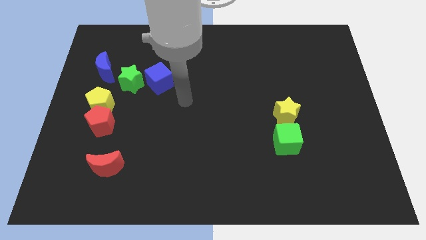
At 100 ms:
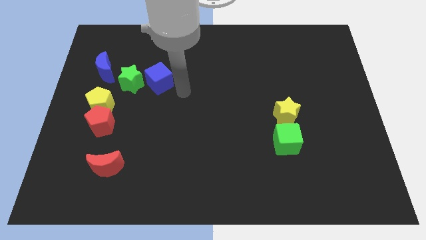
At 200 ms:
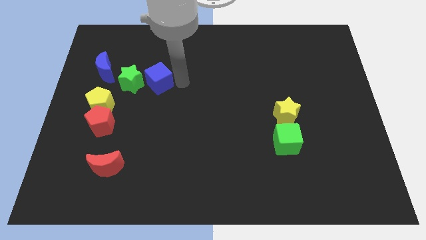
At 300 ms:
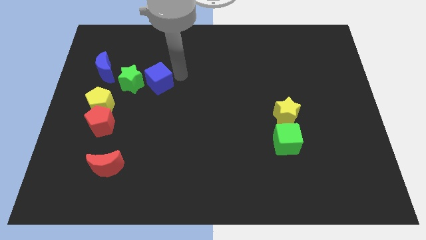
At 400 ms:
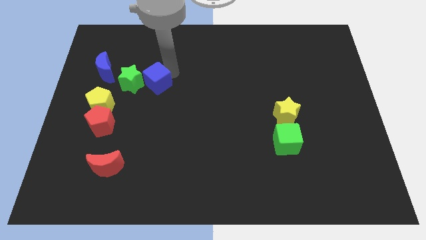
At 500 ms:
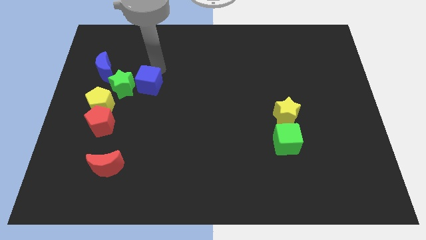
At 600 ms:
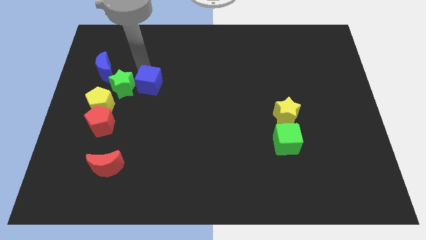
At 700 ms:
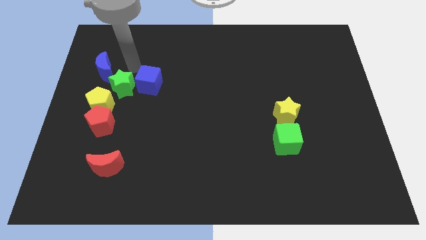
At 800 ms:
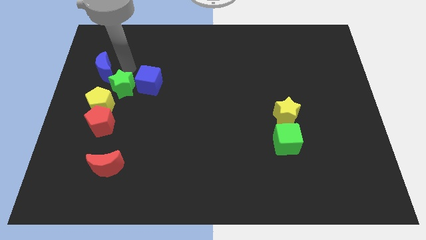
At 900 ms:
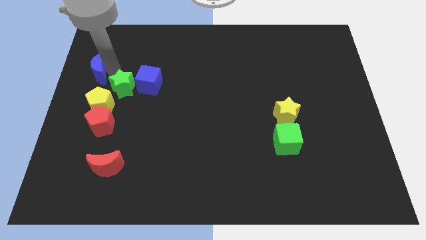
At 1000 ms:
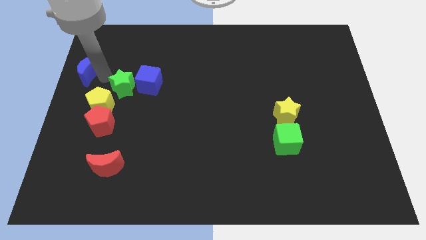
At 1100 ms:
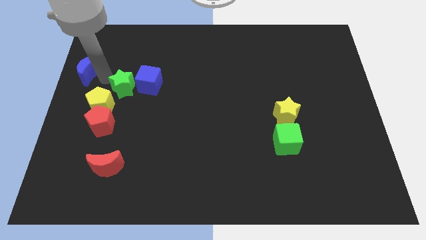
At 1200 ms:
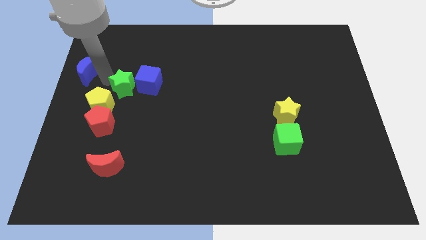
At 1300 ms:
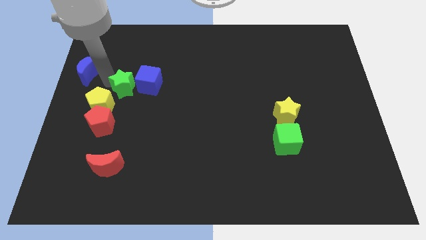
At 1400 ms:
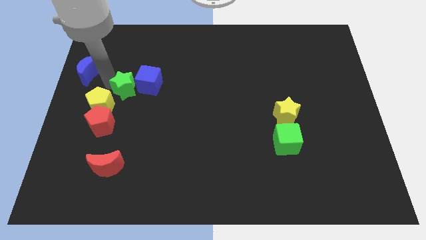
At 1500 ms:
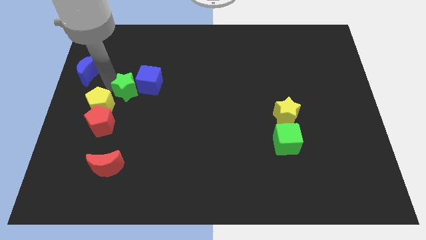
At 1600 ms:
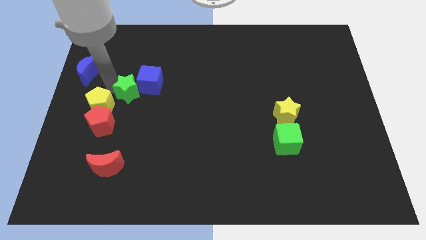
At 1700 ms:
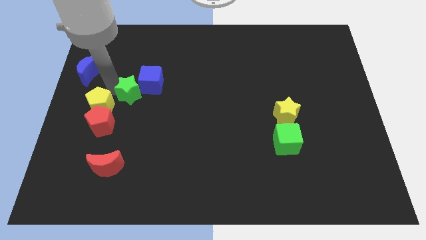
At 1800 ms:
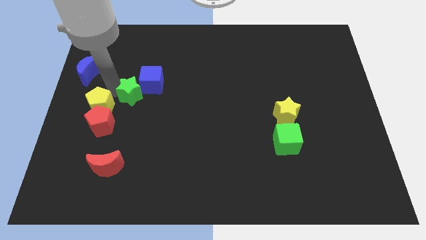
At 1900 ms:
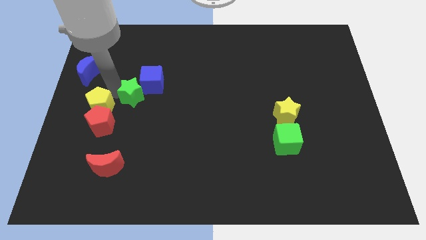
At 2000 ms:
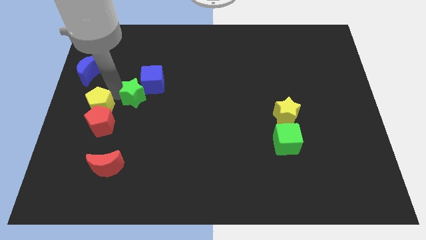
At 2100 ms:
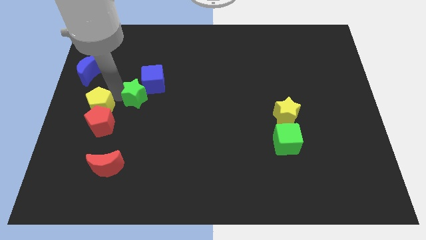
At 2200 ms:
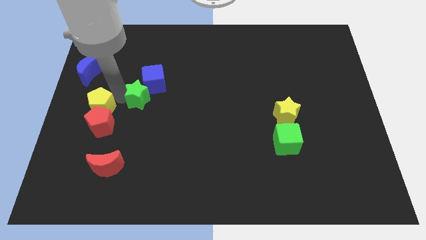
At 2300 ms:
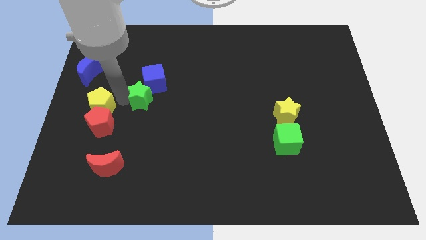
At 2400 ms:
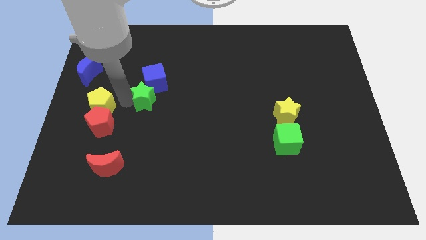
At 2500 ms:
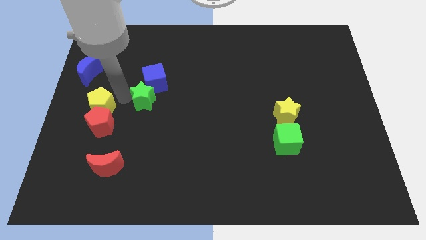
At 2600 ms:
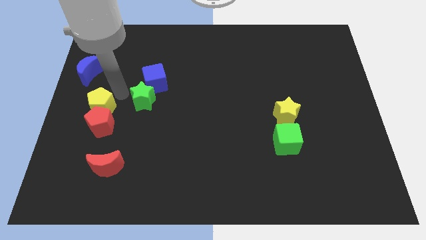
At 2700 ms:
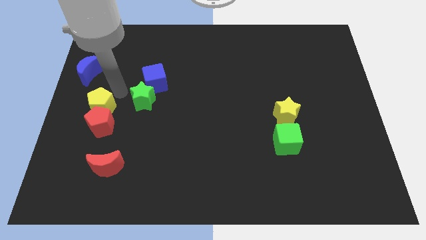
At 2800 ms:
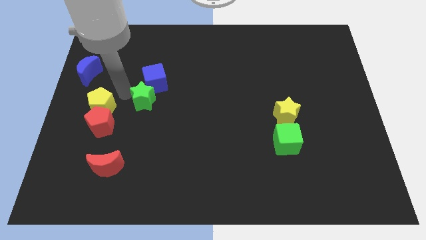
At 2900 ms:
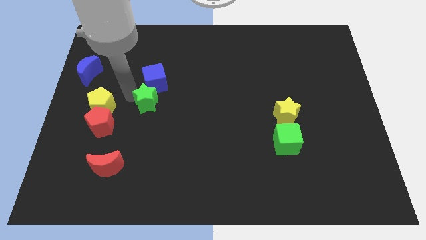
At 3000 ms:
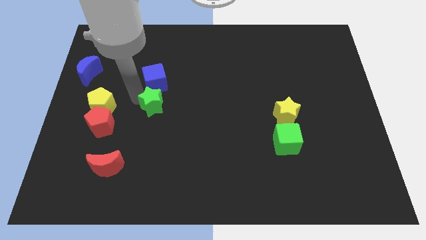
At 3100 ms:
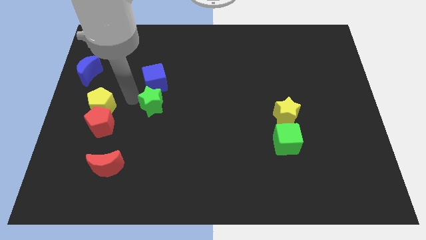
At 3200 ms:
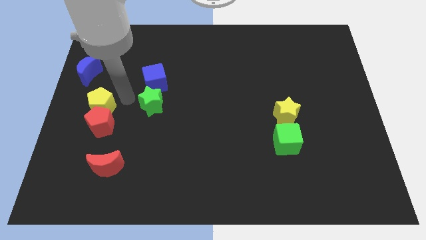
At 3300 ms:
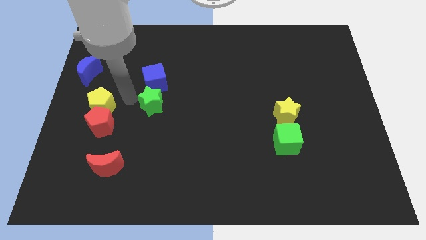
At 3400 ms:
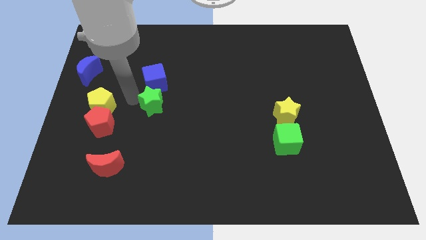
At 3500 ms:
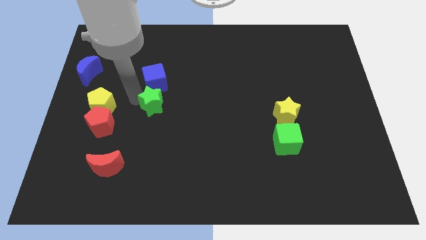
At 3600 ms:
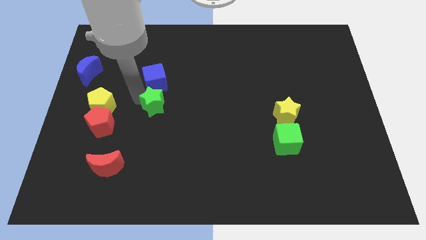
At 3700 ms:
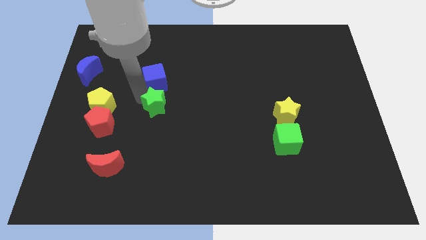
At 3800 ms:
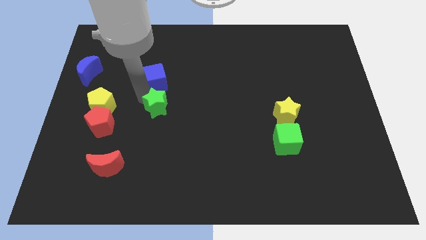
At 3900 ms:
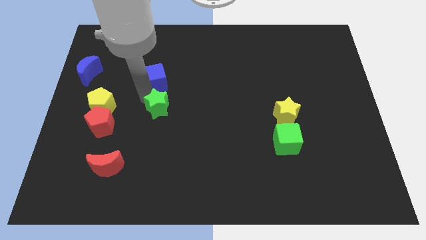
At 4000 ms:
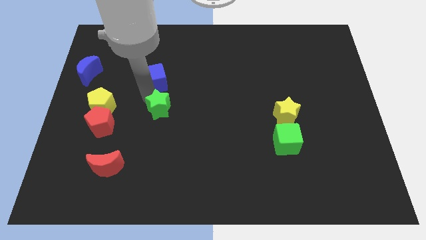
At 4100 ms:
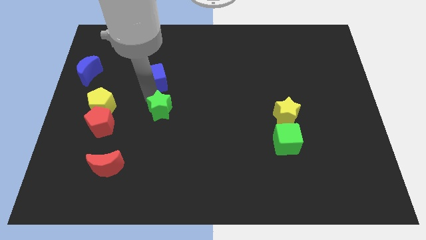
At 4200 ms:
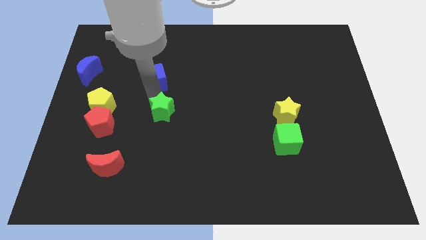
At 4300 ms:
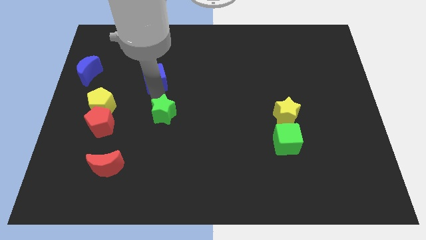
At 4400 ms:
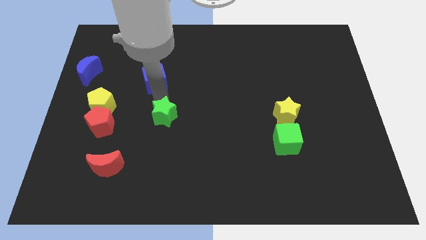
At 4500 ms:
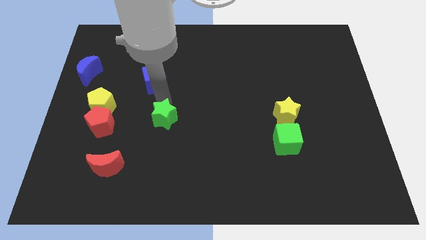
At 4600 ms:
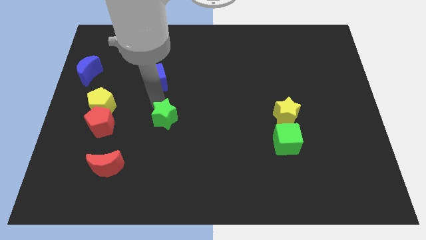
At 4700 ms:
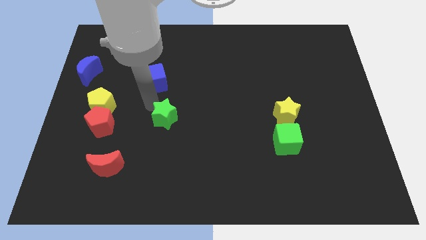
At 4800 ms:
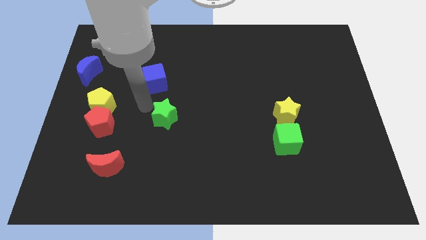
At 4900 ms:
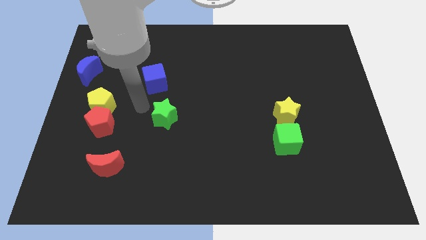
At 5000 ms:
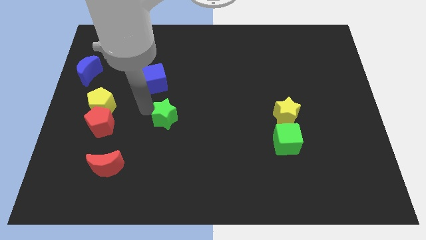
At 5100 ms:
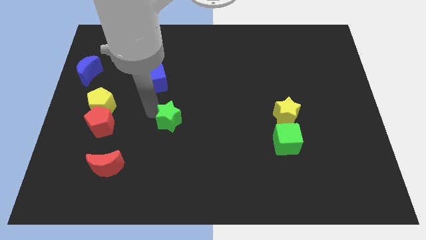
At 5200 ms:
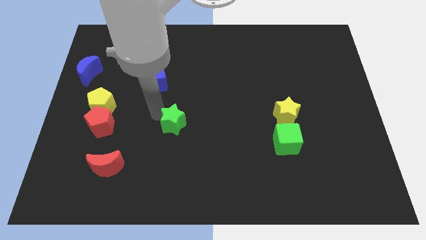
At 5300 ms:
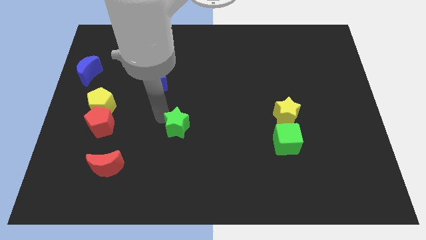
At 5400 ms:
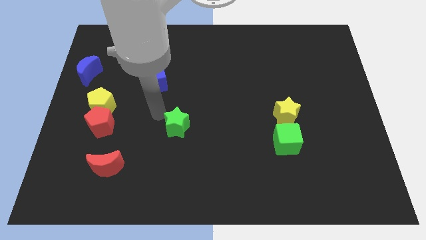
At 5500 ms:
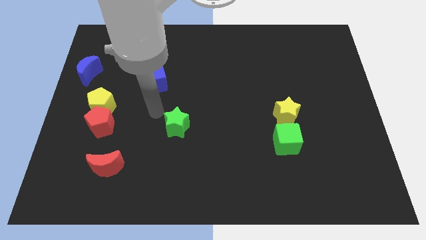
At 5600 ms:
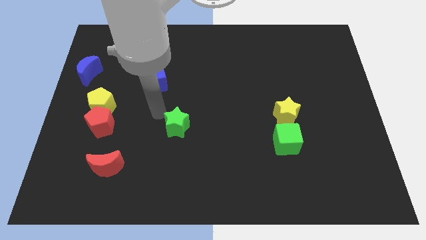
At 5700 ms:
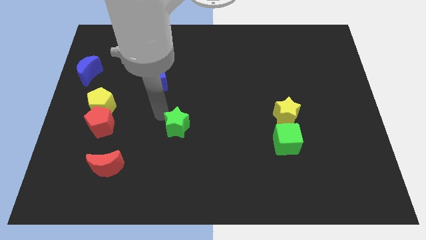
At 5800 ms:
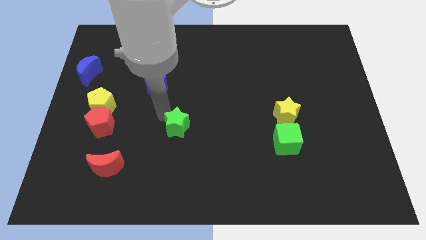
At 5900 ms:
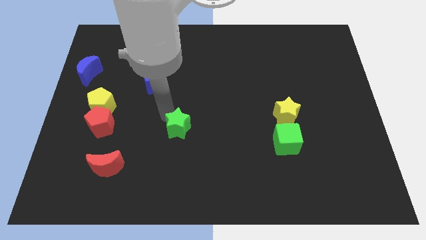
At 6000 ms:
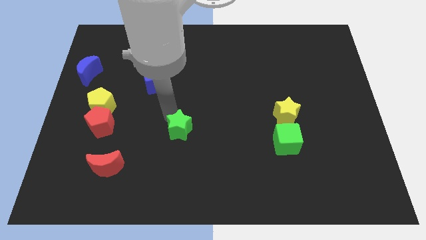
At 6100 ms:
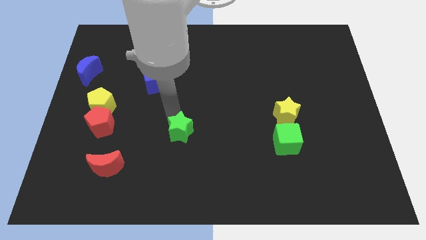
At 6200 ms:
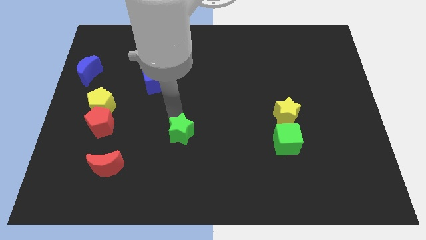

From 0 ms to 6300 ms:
move the green star diagonally downwards and to the right

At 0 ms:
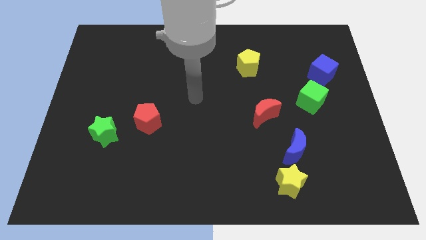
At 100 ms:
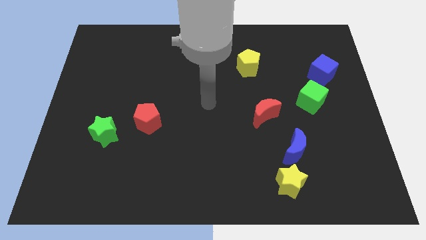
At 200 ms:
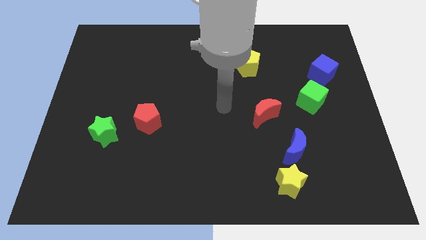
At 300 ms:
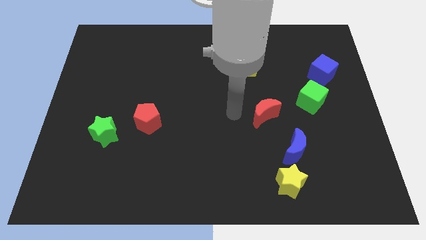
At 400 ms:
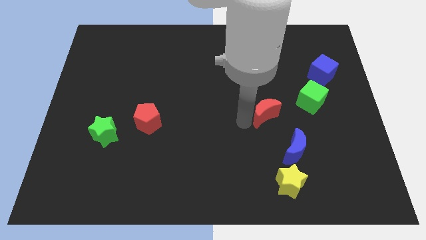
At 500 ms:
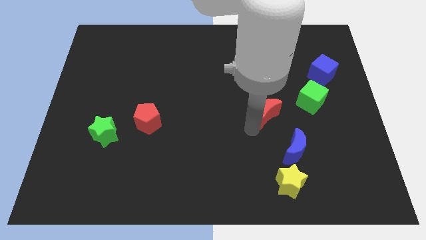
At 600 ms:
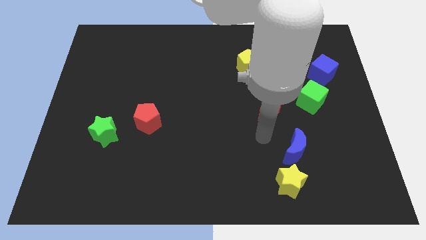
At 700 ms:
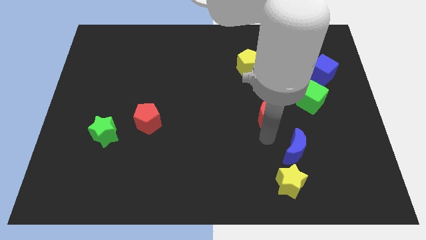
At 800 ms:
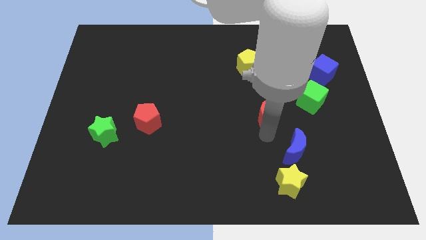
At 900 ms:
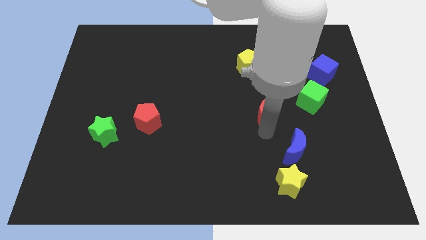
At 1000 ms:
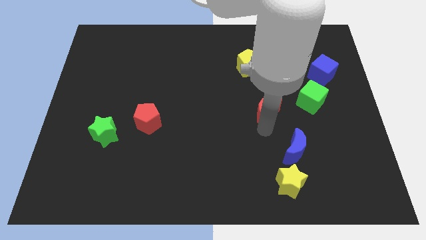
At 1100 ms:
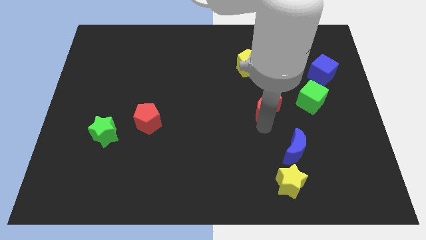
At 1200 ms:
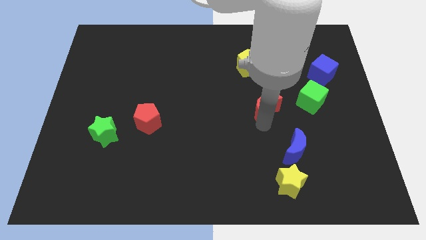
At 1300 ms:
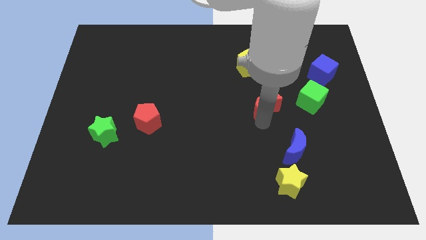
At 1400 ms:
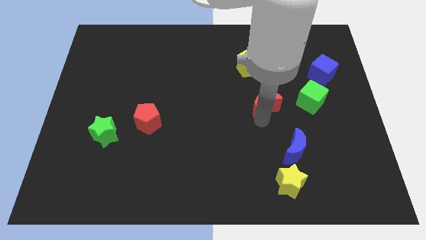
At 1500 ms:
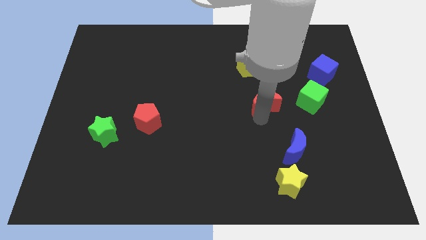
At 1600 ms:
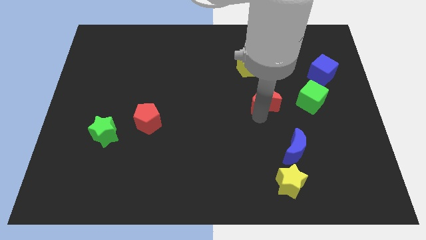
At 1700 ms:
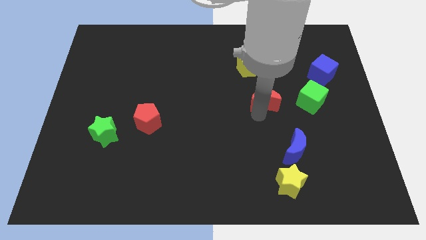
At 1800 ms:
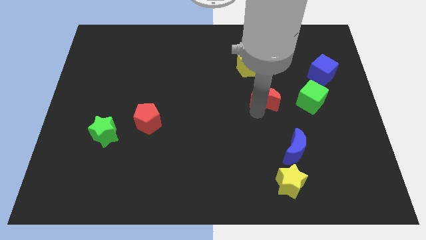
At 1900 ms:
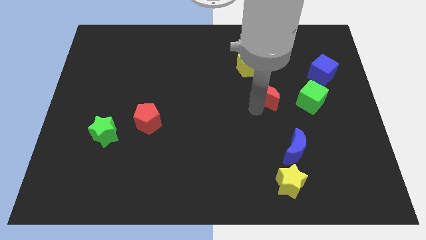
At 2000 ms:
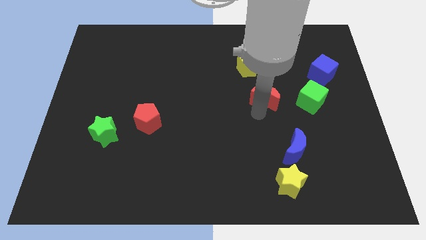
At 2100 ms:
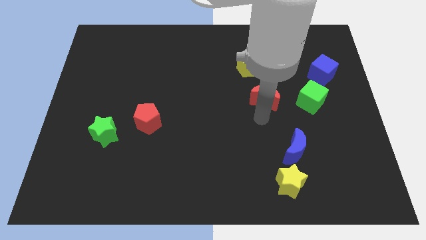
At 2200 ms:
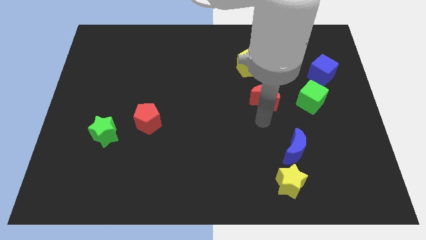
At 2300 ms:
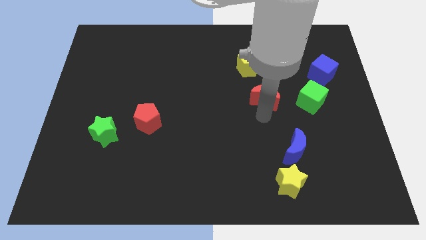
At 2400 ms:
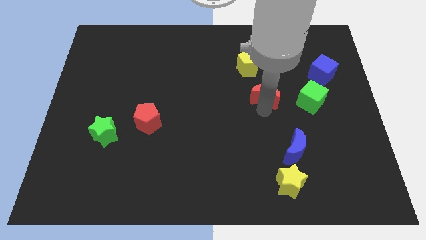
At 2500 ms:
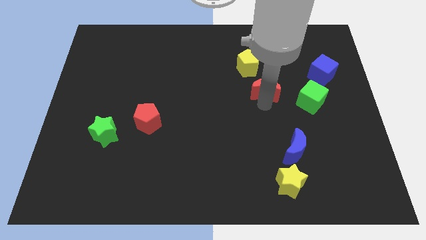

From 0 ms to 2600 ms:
move the red moon upwards somewhat
